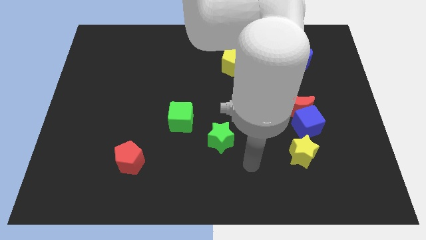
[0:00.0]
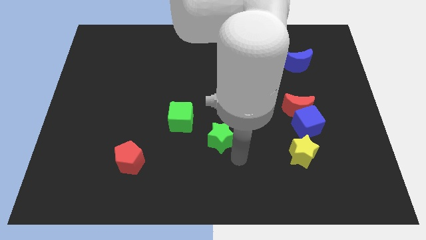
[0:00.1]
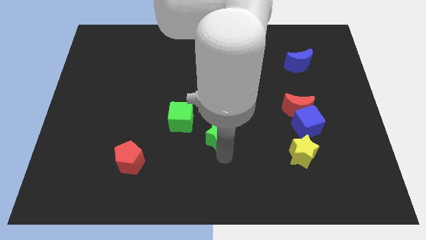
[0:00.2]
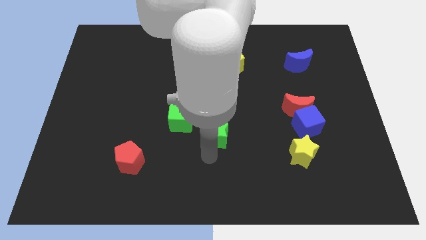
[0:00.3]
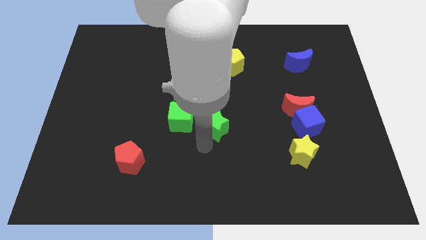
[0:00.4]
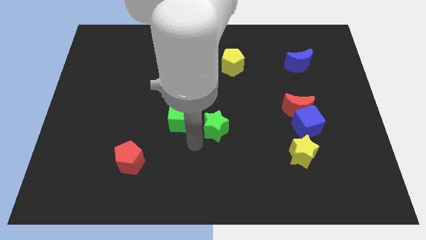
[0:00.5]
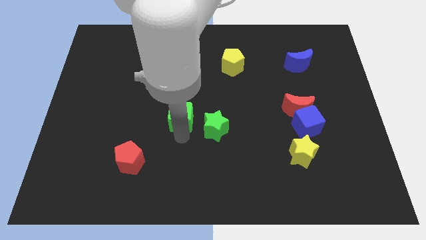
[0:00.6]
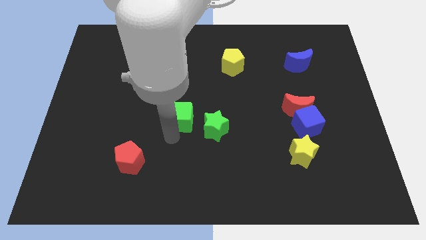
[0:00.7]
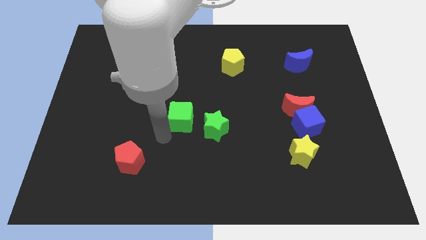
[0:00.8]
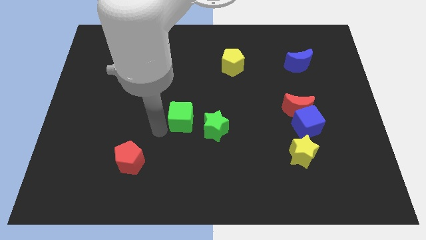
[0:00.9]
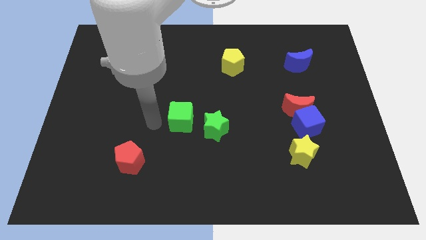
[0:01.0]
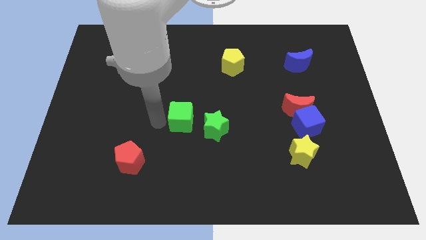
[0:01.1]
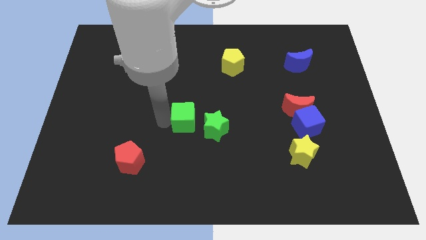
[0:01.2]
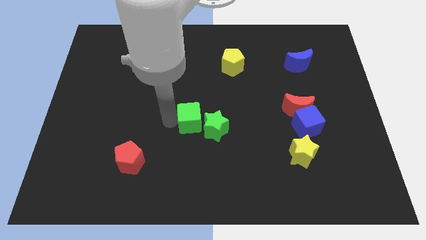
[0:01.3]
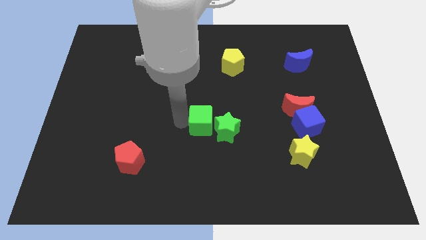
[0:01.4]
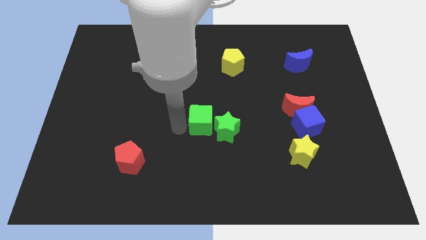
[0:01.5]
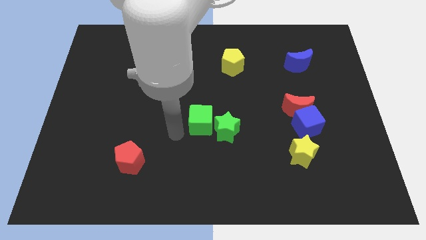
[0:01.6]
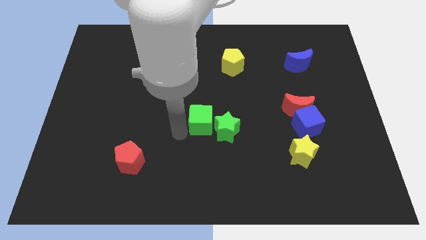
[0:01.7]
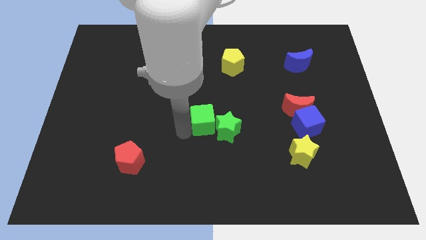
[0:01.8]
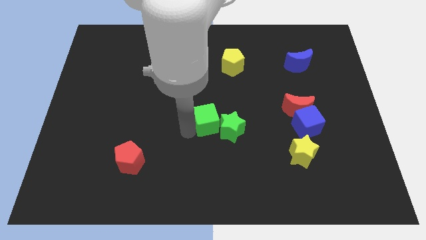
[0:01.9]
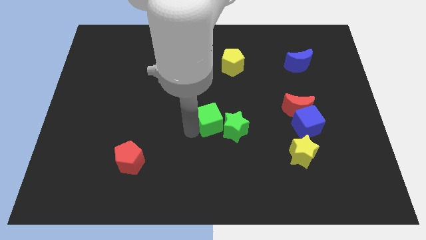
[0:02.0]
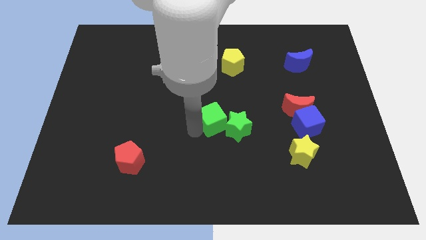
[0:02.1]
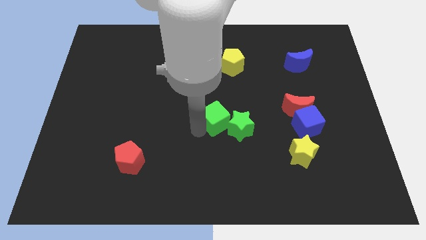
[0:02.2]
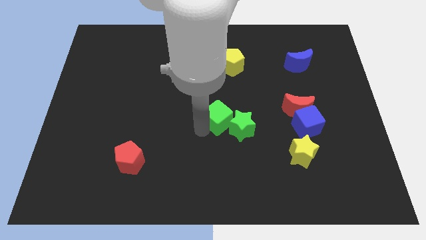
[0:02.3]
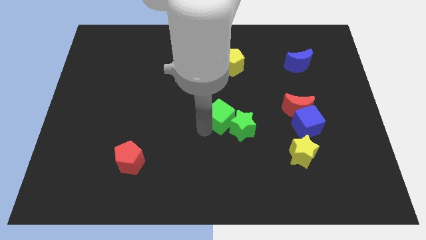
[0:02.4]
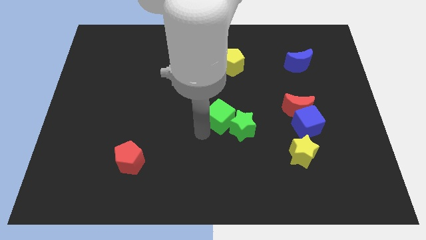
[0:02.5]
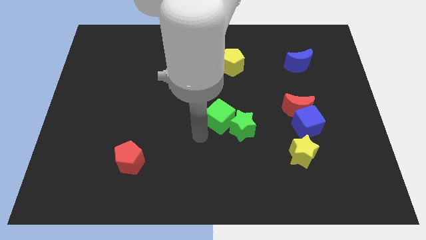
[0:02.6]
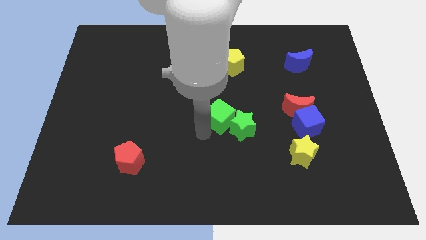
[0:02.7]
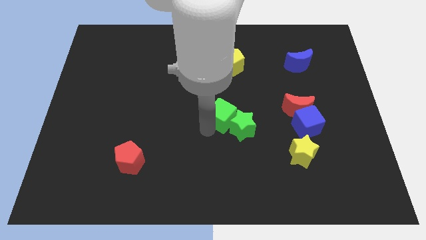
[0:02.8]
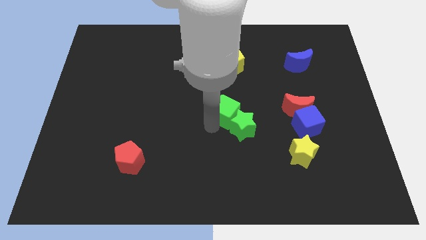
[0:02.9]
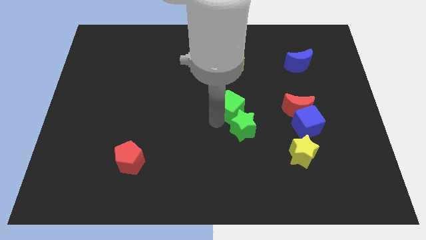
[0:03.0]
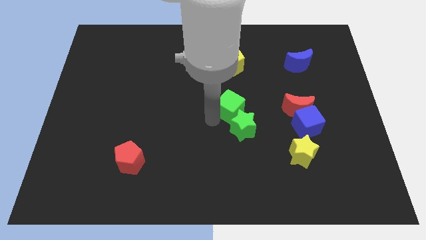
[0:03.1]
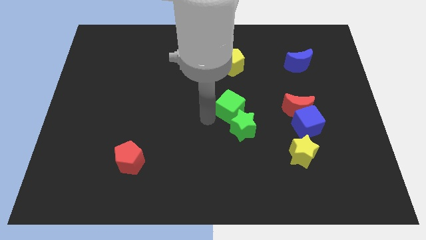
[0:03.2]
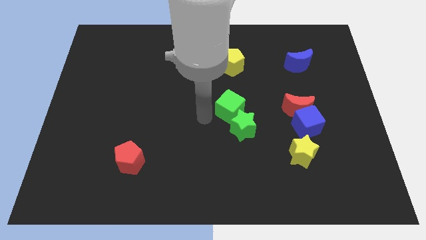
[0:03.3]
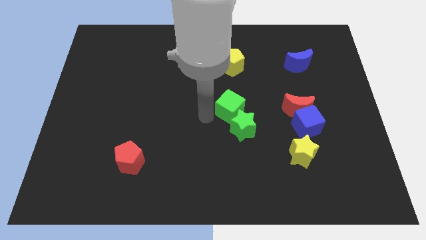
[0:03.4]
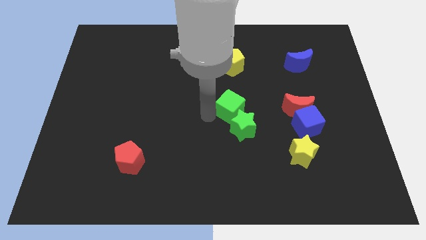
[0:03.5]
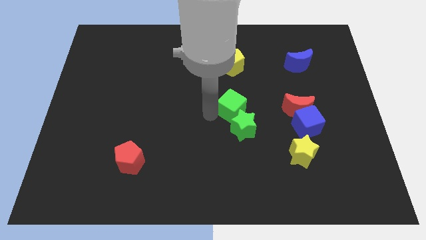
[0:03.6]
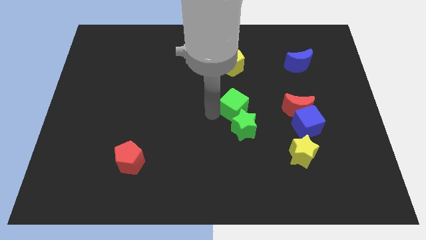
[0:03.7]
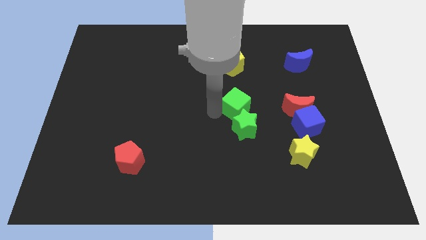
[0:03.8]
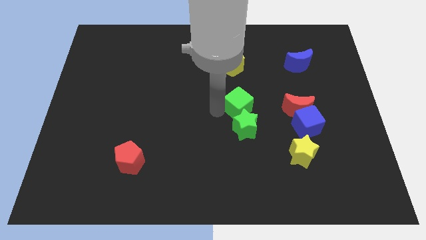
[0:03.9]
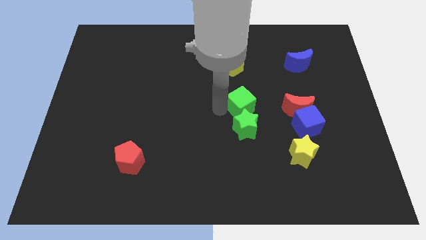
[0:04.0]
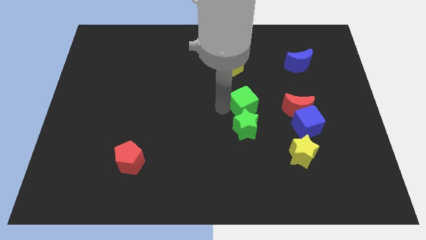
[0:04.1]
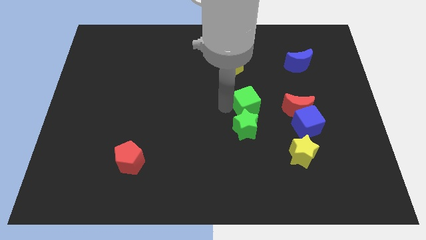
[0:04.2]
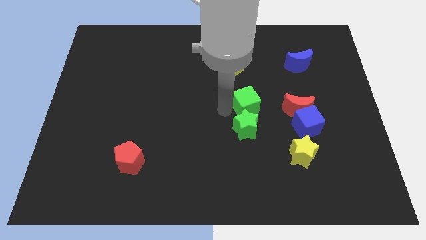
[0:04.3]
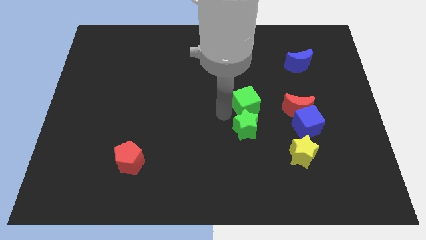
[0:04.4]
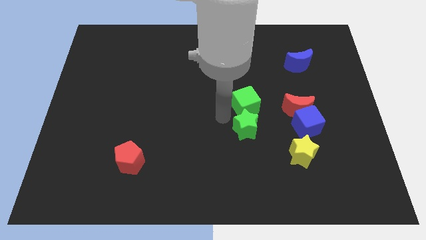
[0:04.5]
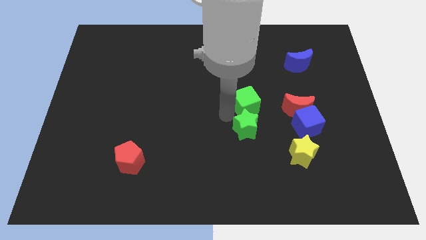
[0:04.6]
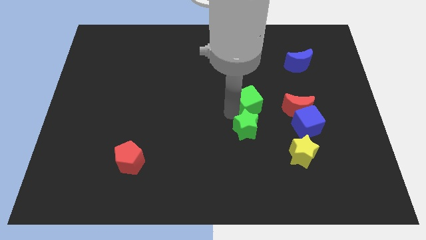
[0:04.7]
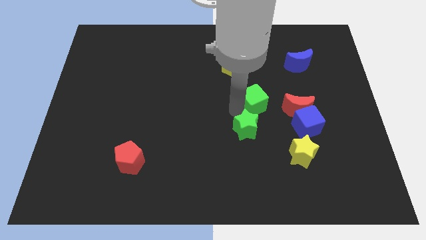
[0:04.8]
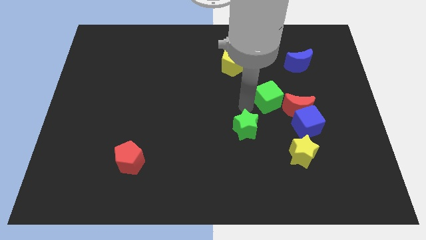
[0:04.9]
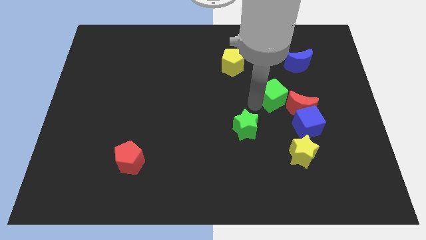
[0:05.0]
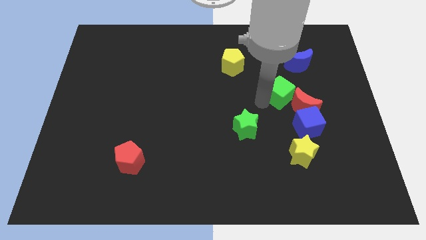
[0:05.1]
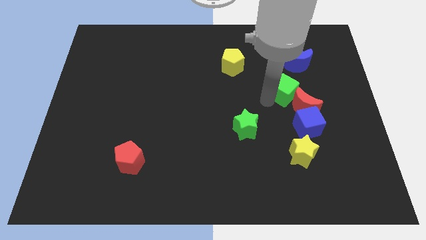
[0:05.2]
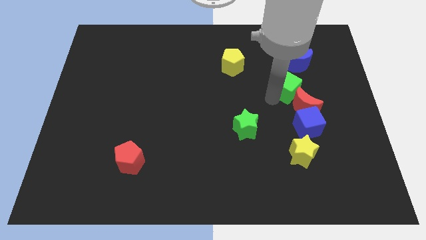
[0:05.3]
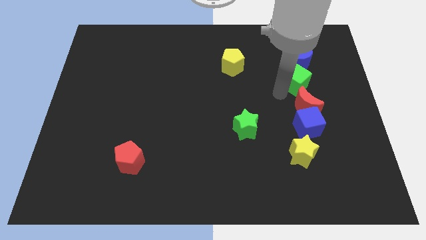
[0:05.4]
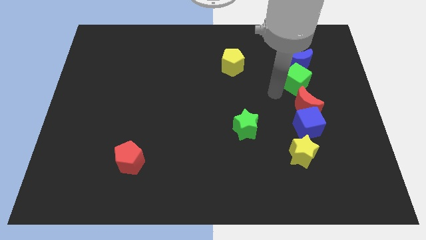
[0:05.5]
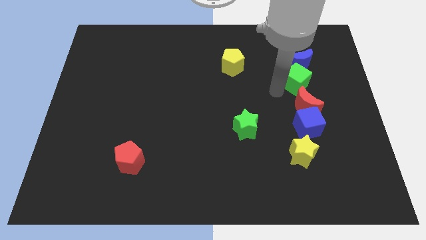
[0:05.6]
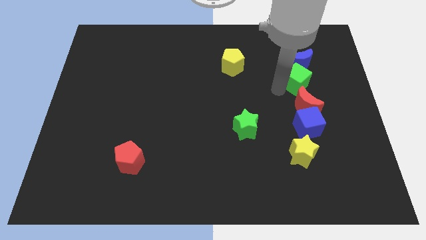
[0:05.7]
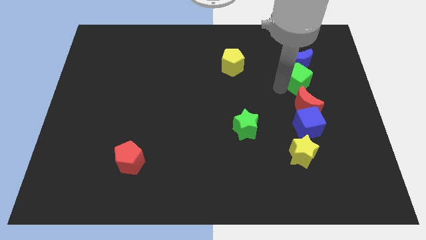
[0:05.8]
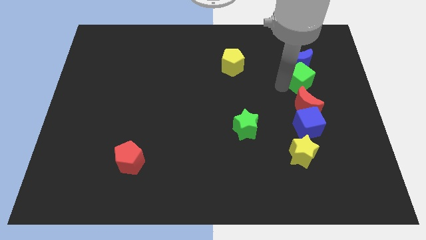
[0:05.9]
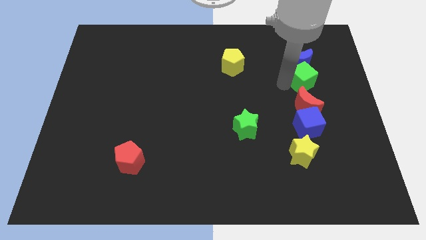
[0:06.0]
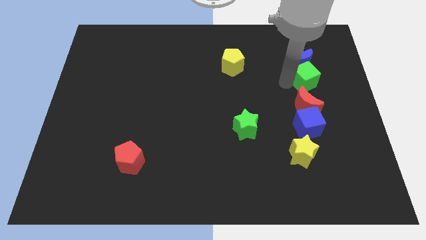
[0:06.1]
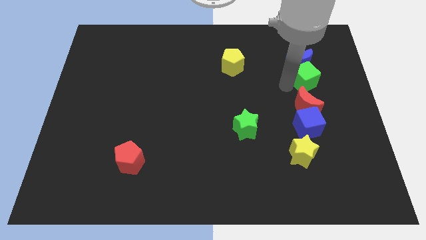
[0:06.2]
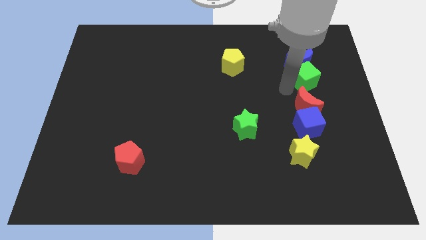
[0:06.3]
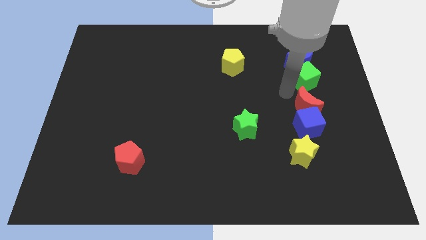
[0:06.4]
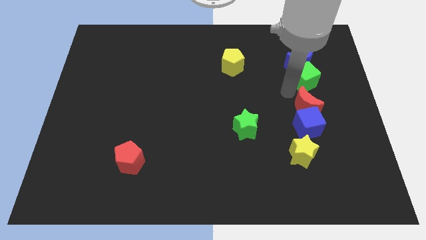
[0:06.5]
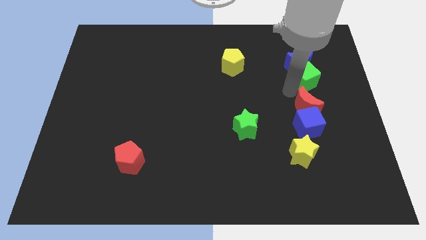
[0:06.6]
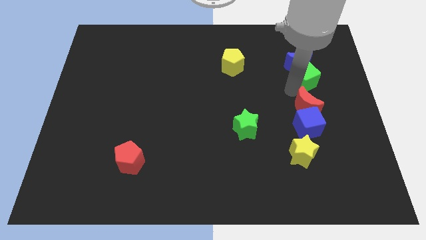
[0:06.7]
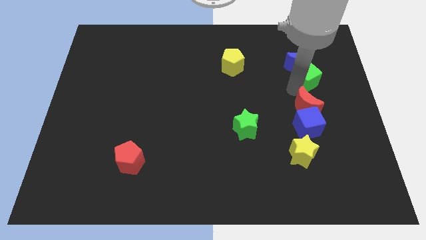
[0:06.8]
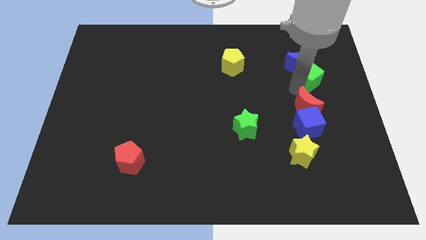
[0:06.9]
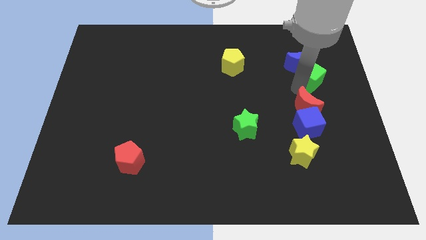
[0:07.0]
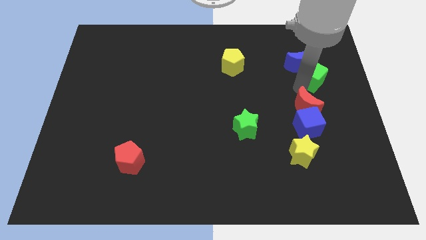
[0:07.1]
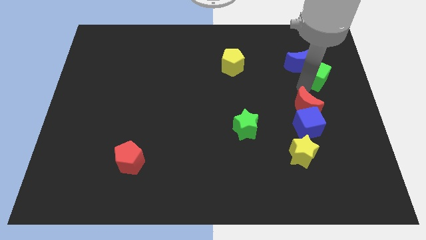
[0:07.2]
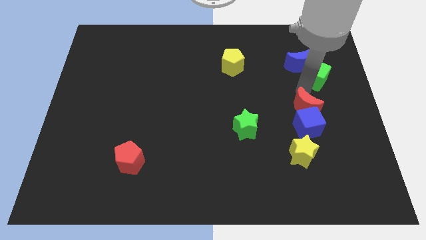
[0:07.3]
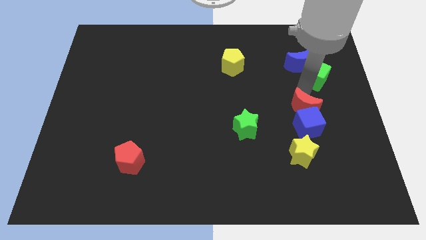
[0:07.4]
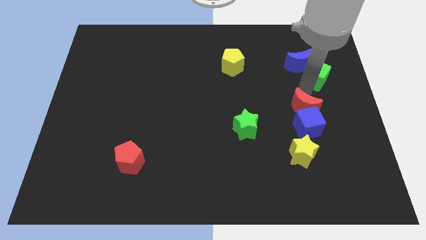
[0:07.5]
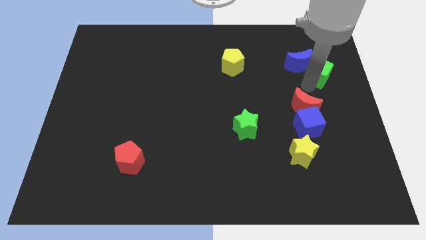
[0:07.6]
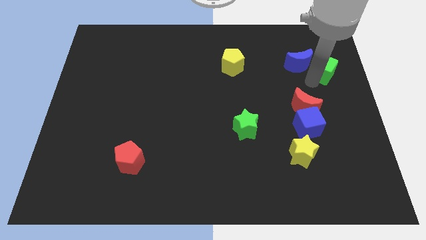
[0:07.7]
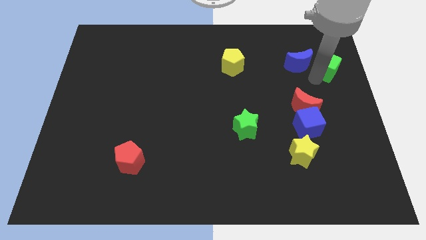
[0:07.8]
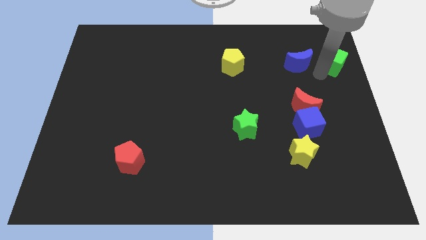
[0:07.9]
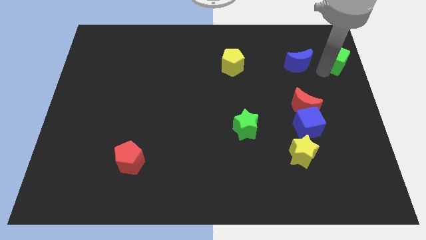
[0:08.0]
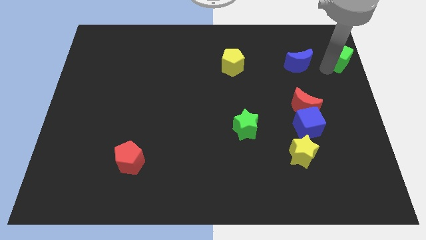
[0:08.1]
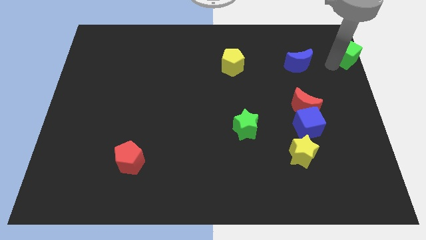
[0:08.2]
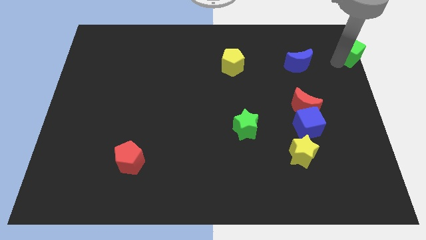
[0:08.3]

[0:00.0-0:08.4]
move the green cube to the top right of the board
